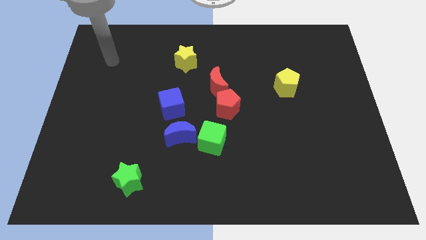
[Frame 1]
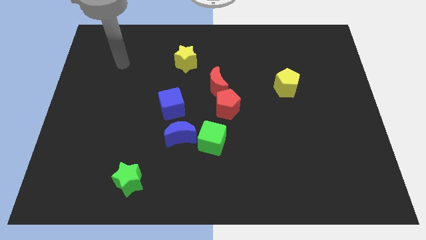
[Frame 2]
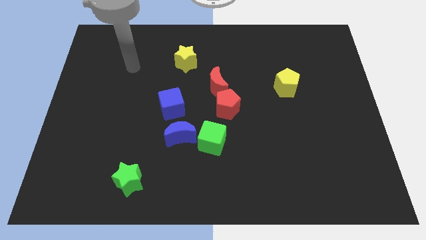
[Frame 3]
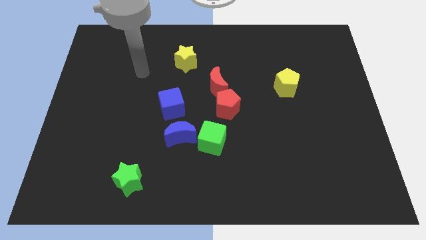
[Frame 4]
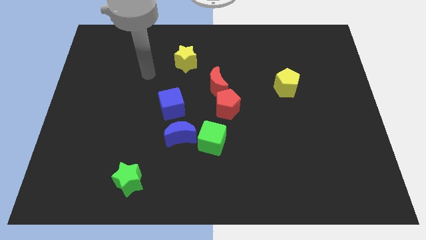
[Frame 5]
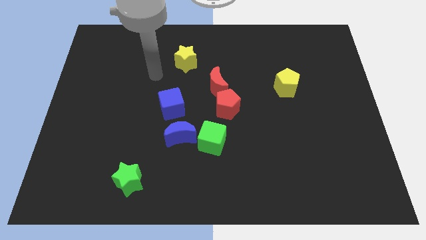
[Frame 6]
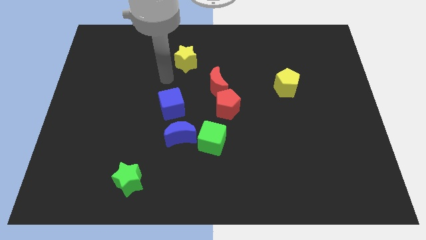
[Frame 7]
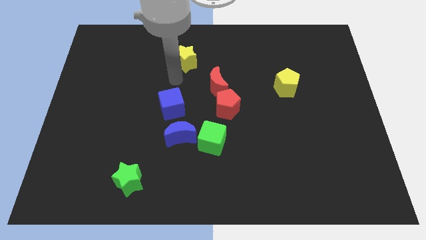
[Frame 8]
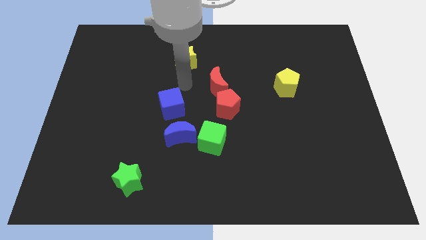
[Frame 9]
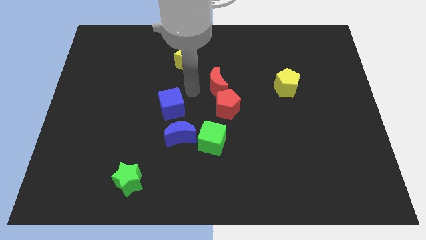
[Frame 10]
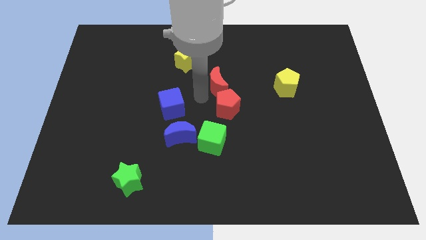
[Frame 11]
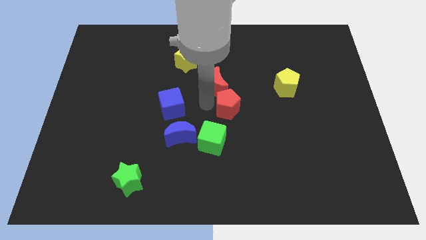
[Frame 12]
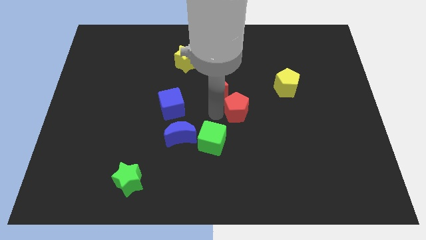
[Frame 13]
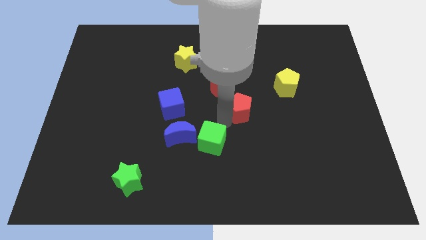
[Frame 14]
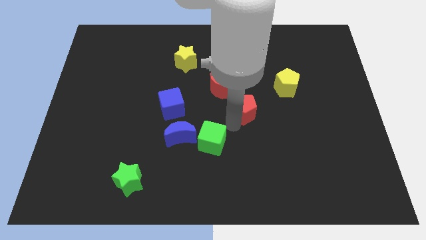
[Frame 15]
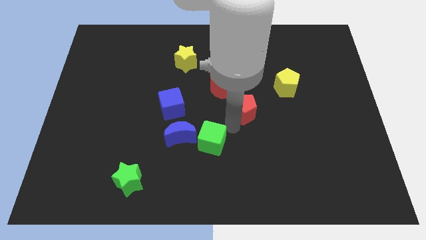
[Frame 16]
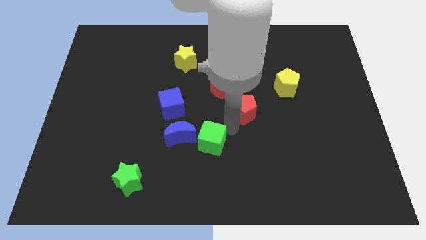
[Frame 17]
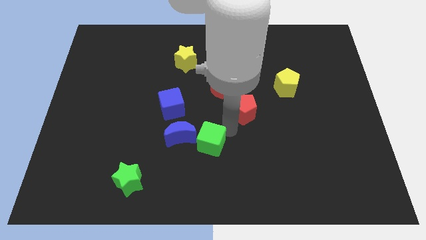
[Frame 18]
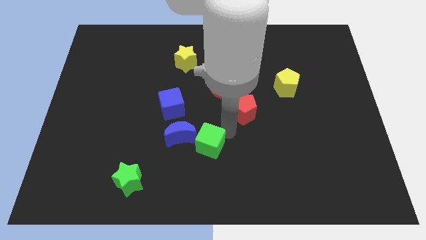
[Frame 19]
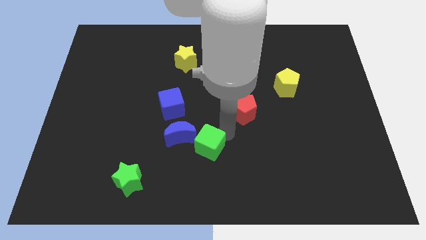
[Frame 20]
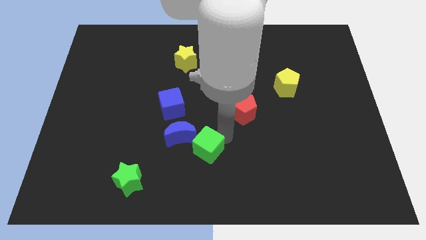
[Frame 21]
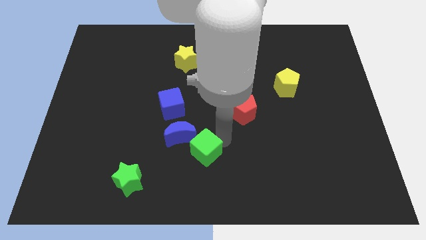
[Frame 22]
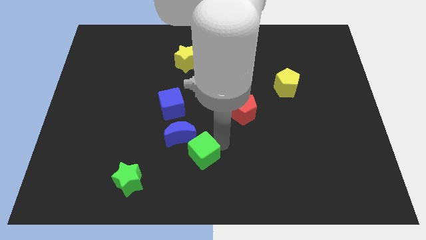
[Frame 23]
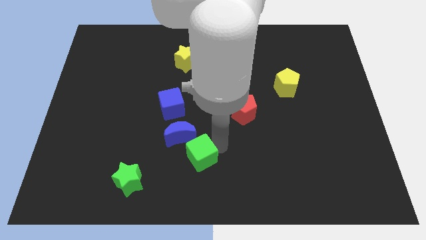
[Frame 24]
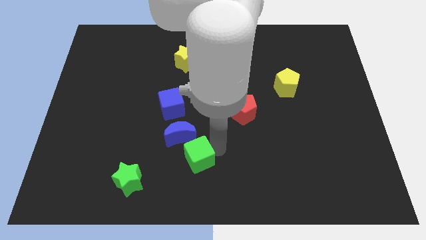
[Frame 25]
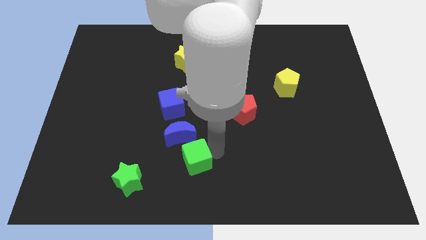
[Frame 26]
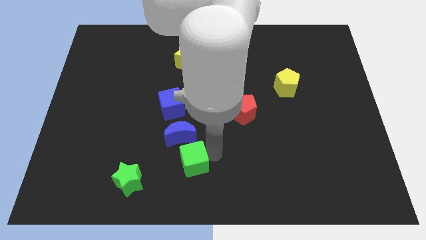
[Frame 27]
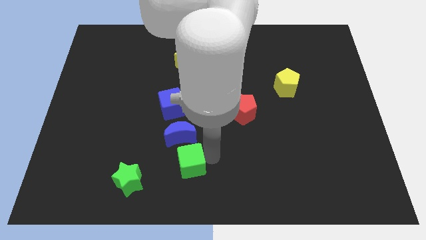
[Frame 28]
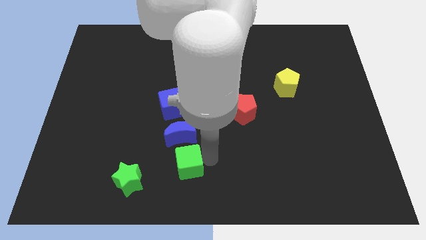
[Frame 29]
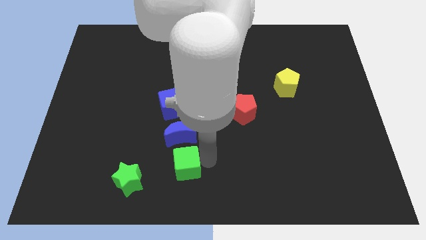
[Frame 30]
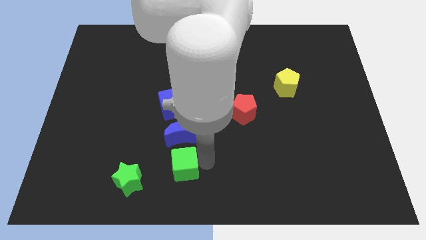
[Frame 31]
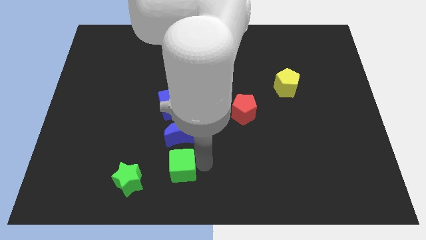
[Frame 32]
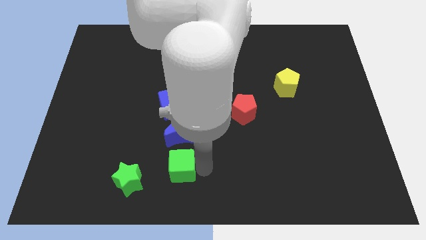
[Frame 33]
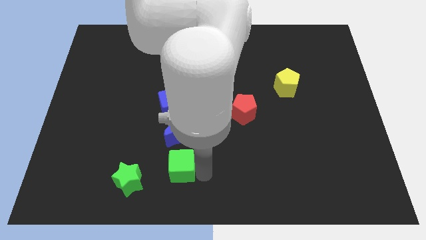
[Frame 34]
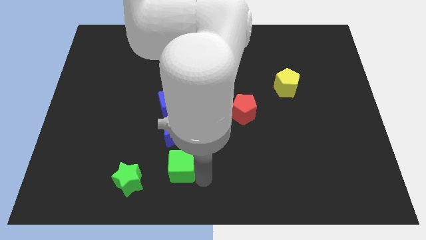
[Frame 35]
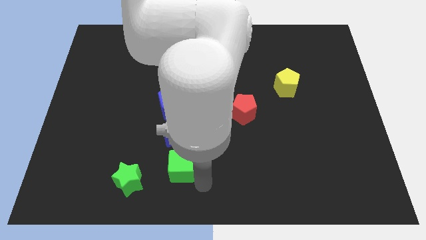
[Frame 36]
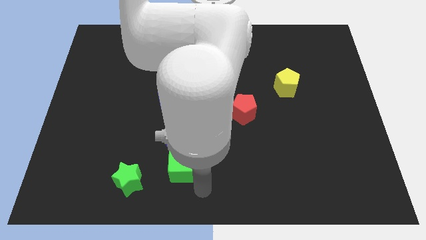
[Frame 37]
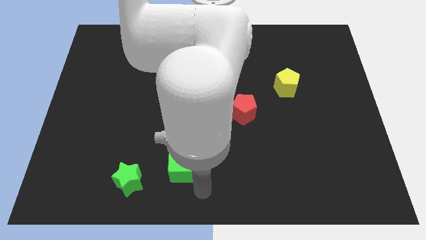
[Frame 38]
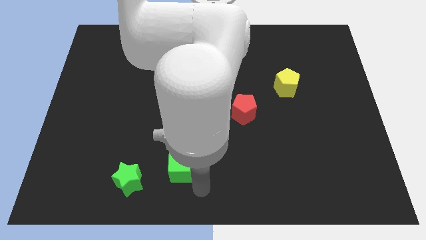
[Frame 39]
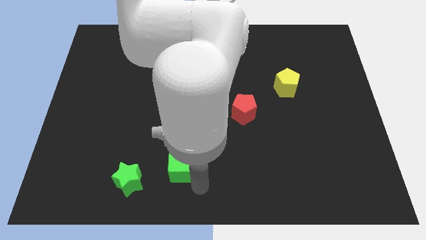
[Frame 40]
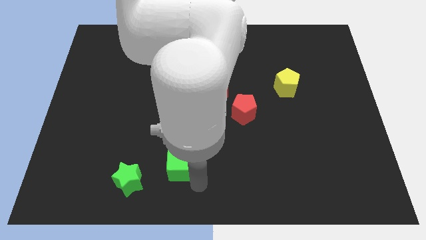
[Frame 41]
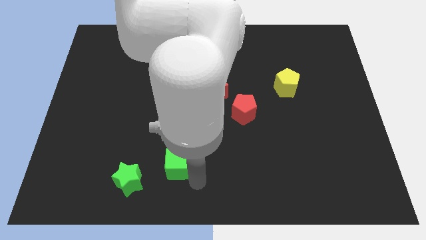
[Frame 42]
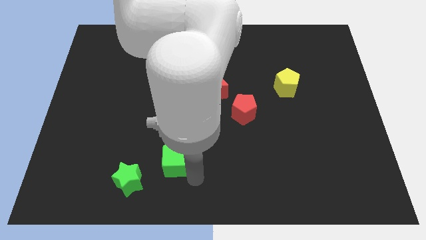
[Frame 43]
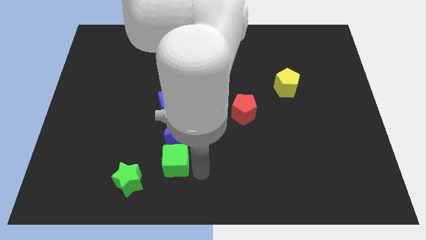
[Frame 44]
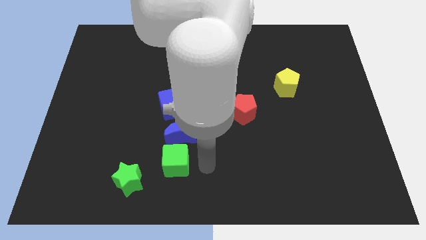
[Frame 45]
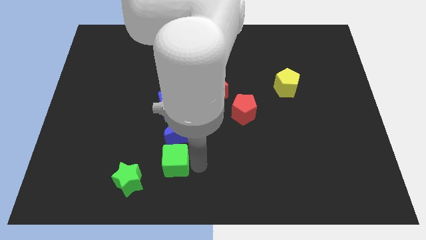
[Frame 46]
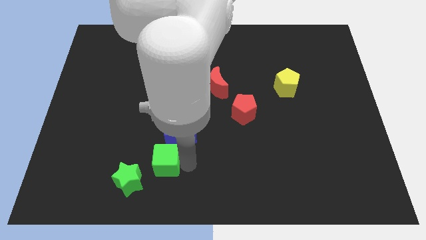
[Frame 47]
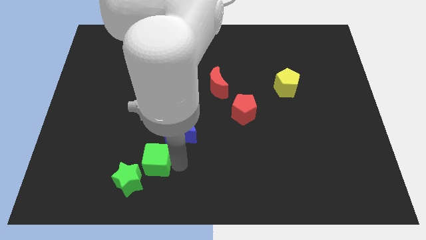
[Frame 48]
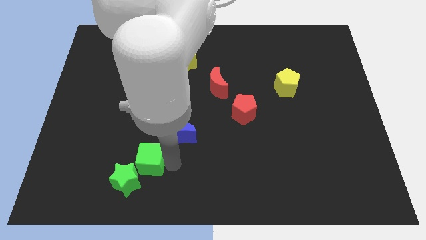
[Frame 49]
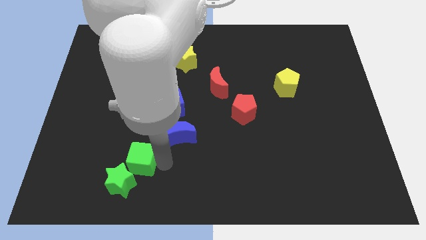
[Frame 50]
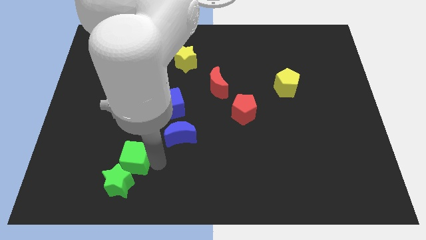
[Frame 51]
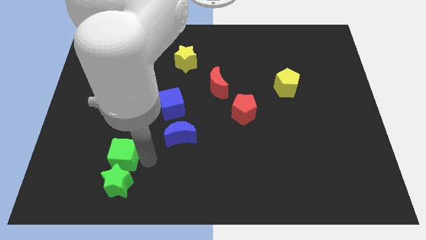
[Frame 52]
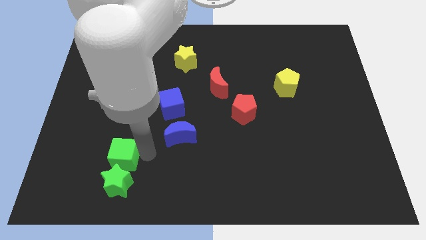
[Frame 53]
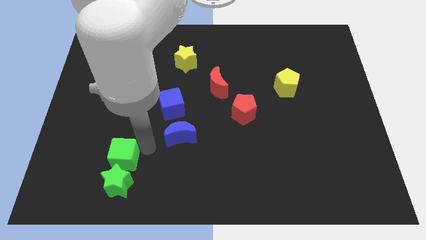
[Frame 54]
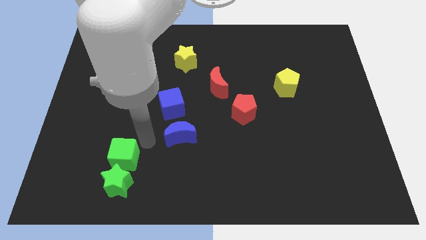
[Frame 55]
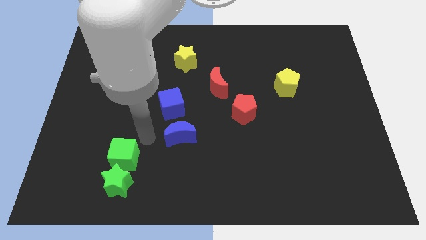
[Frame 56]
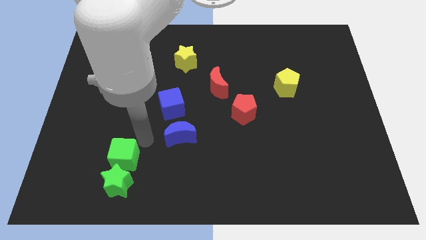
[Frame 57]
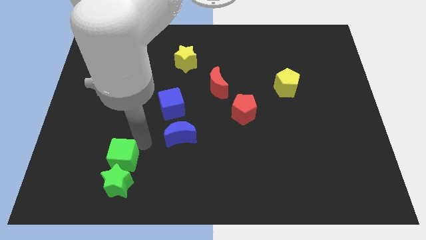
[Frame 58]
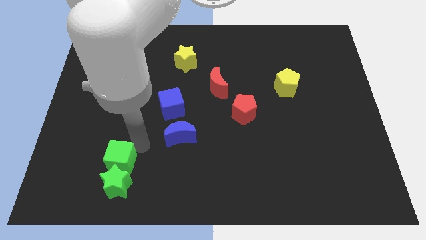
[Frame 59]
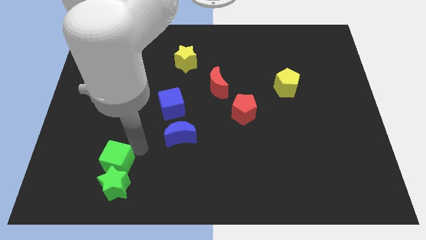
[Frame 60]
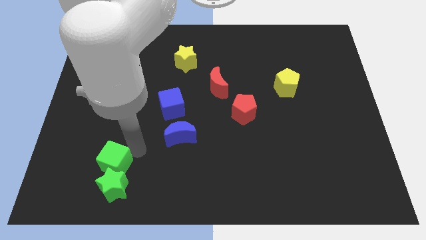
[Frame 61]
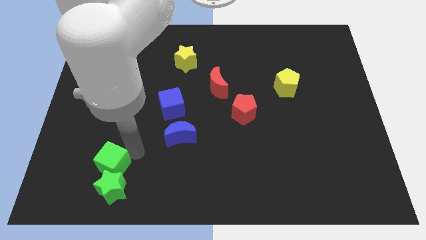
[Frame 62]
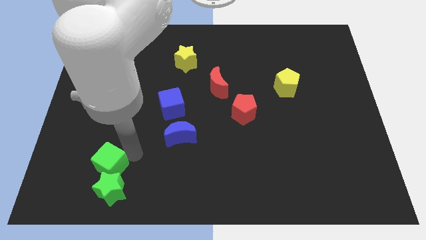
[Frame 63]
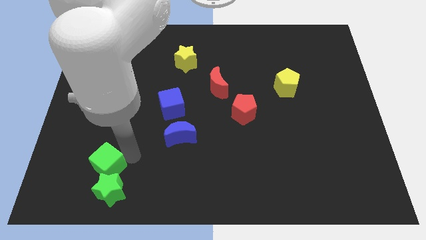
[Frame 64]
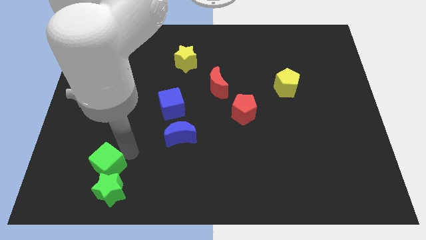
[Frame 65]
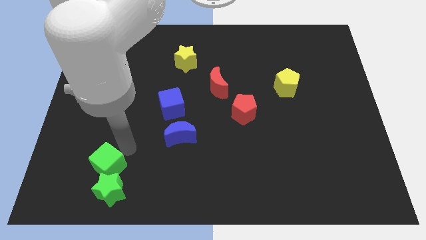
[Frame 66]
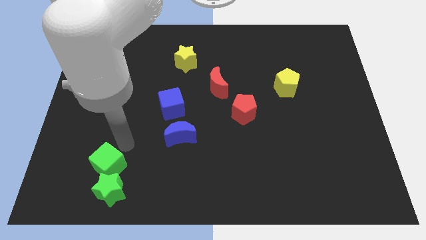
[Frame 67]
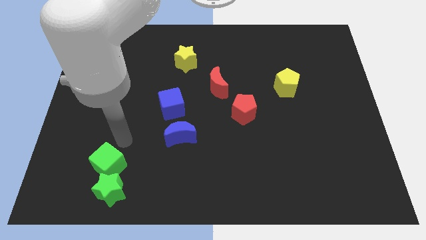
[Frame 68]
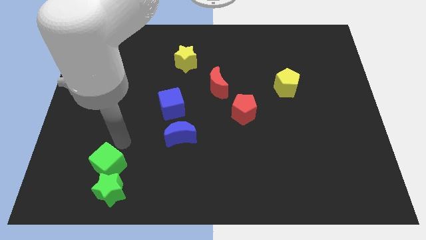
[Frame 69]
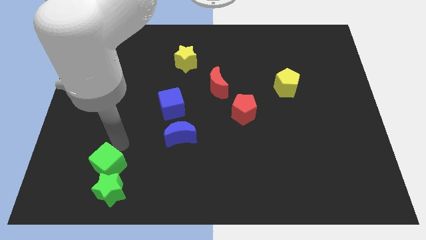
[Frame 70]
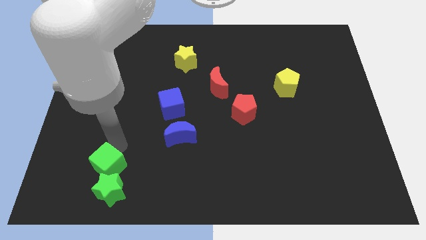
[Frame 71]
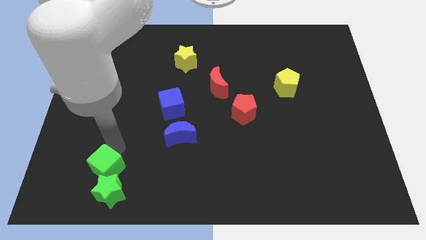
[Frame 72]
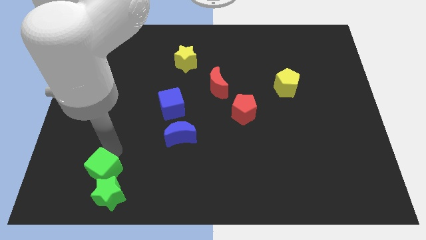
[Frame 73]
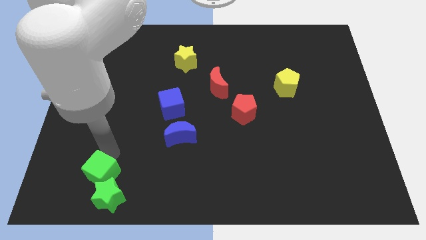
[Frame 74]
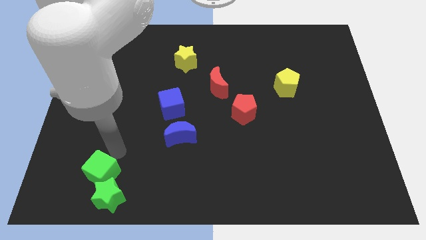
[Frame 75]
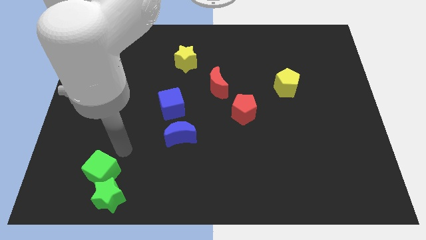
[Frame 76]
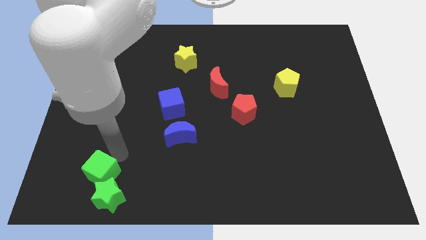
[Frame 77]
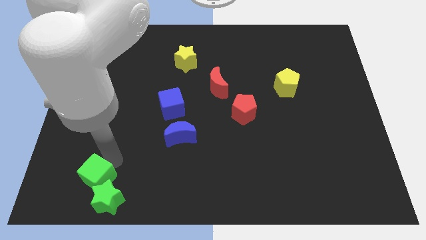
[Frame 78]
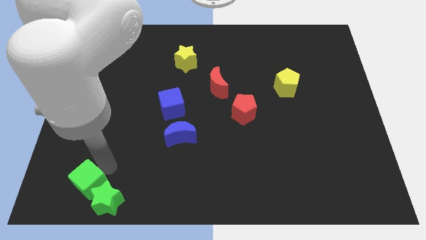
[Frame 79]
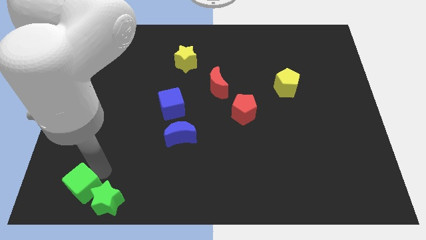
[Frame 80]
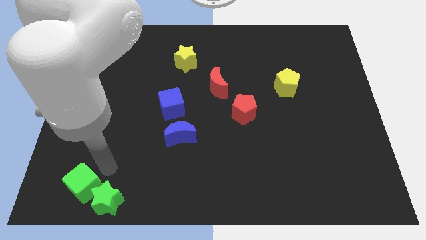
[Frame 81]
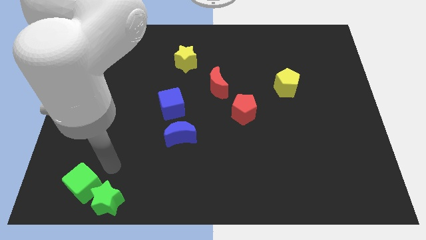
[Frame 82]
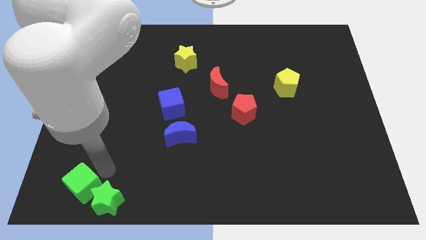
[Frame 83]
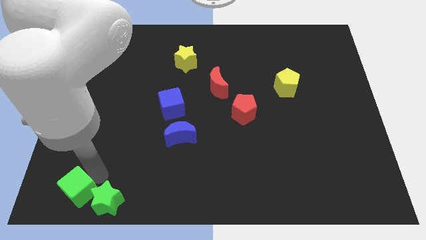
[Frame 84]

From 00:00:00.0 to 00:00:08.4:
put the green cube to the bottom left of the board
